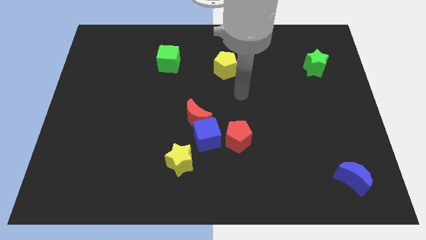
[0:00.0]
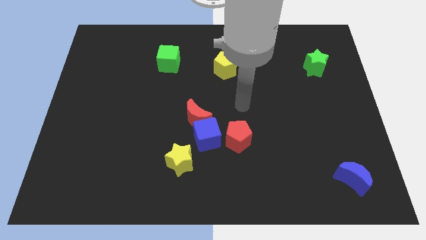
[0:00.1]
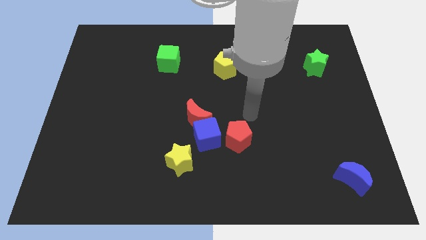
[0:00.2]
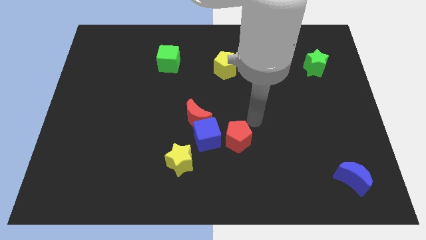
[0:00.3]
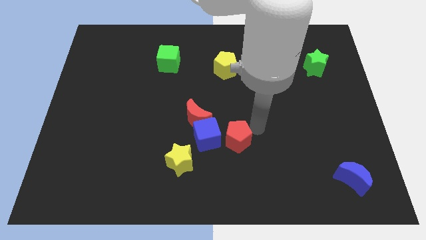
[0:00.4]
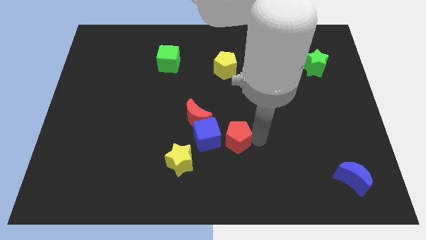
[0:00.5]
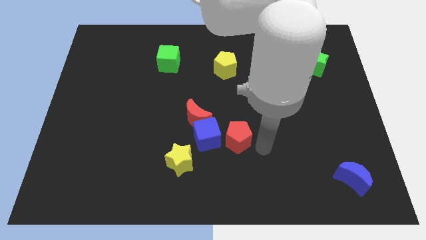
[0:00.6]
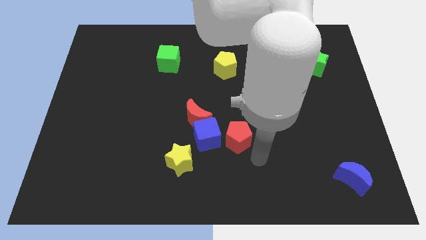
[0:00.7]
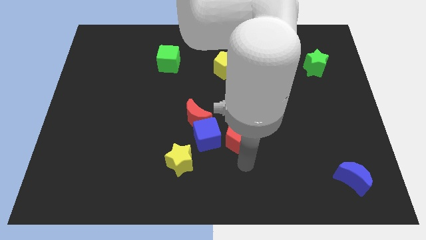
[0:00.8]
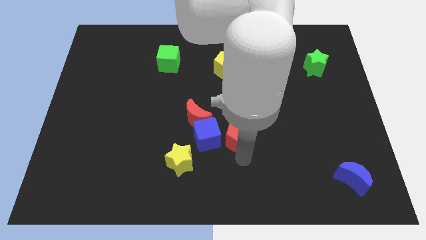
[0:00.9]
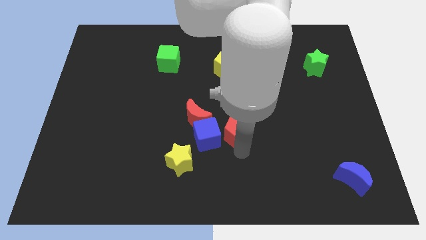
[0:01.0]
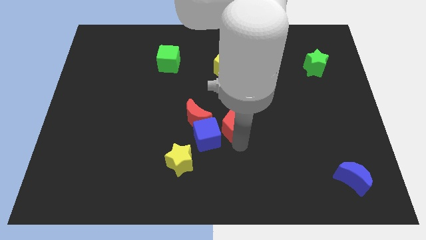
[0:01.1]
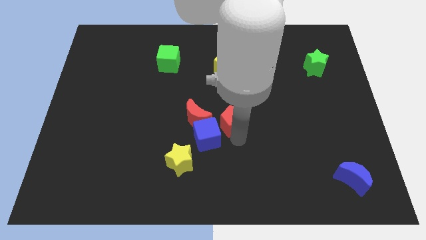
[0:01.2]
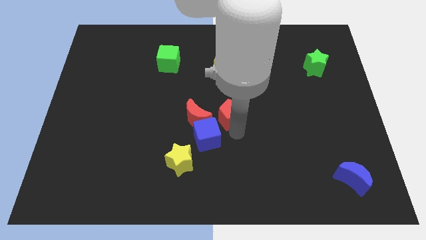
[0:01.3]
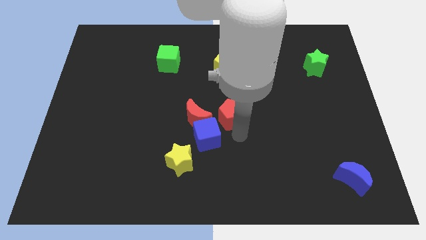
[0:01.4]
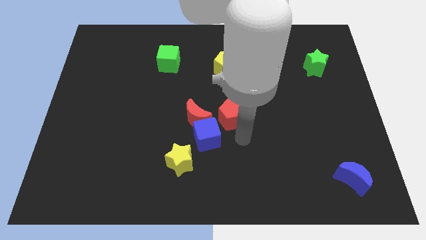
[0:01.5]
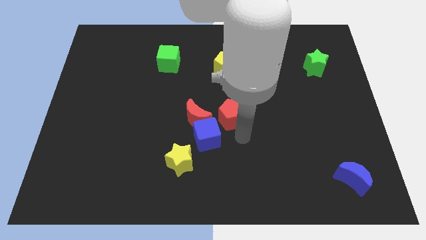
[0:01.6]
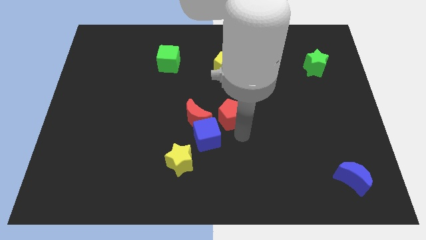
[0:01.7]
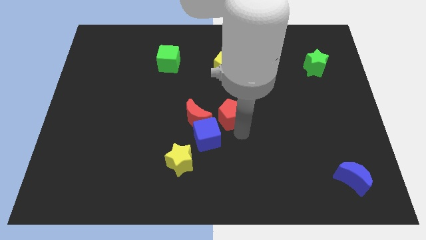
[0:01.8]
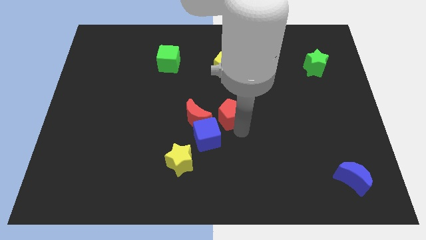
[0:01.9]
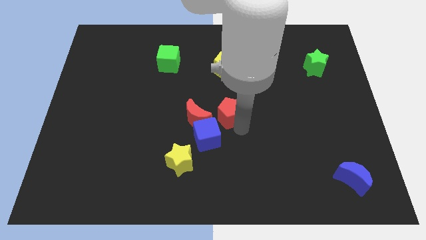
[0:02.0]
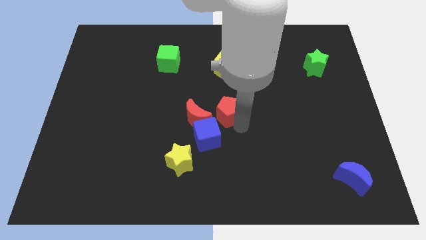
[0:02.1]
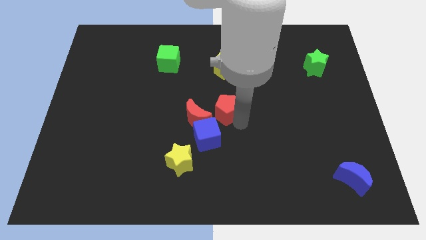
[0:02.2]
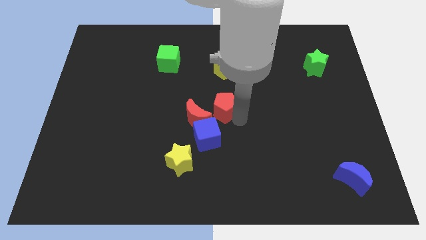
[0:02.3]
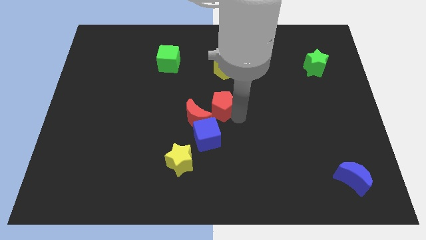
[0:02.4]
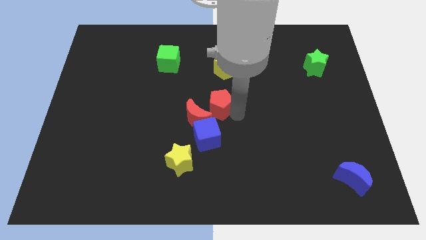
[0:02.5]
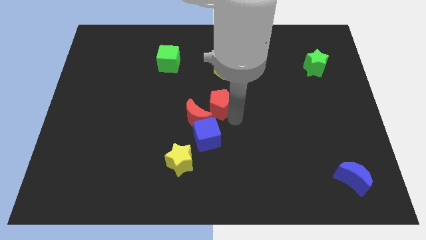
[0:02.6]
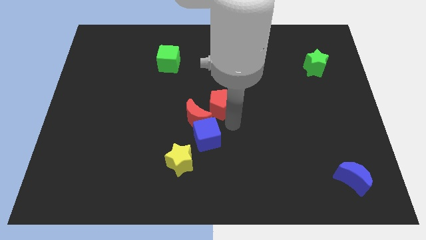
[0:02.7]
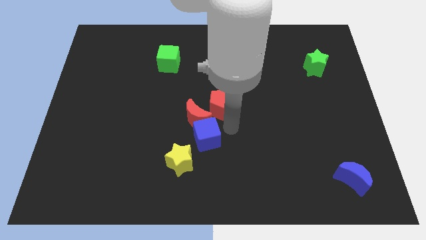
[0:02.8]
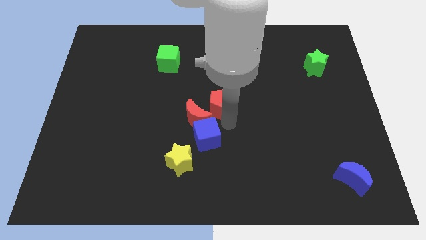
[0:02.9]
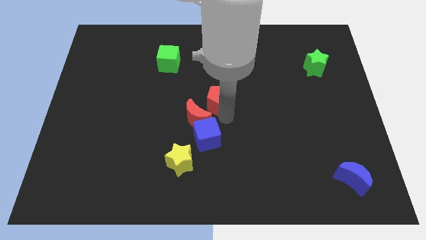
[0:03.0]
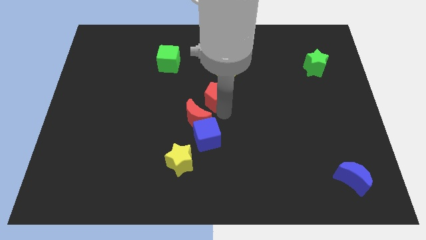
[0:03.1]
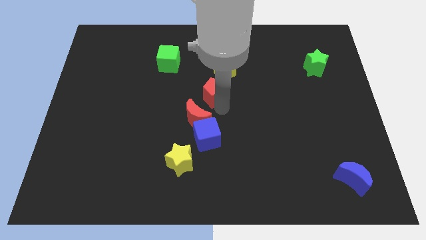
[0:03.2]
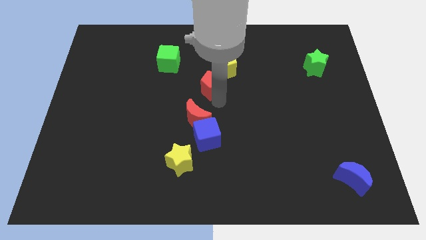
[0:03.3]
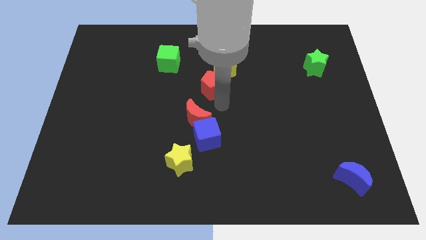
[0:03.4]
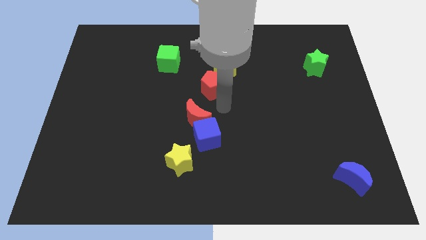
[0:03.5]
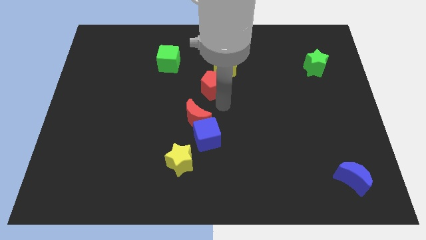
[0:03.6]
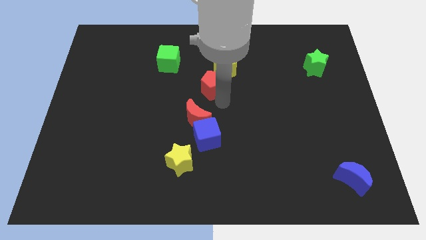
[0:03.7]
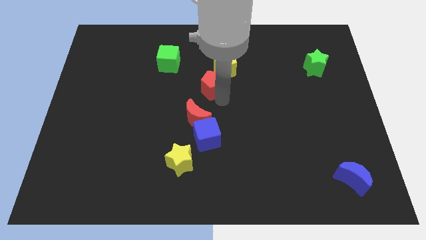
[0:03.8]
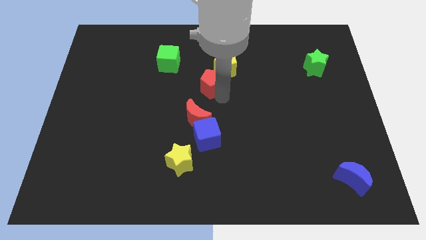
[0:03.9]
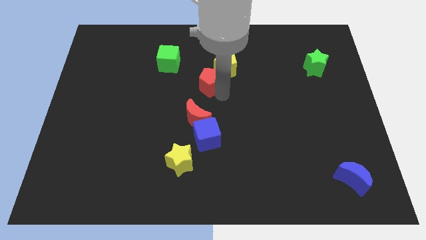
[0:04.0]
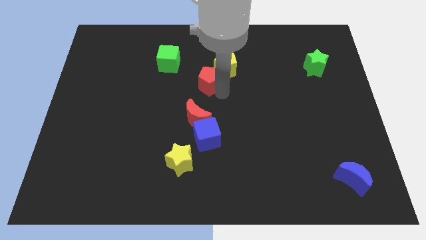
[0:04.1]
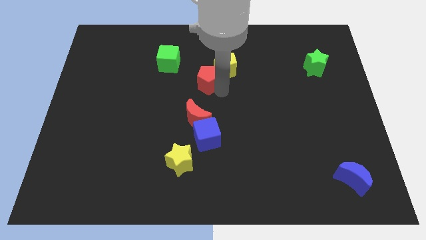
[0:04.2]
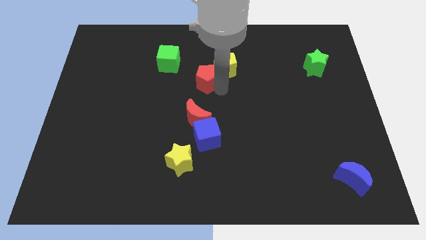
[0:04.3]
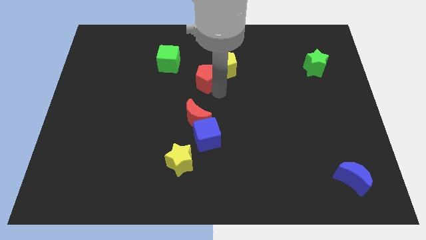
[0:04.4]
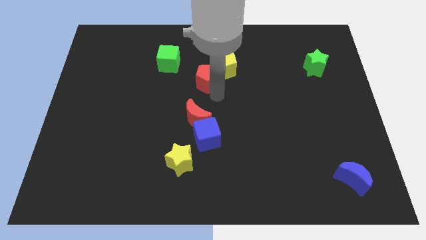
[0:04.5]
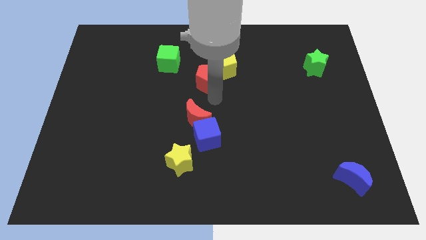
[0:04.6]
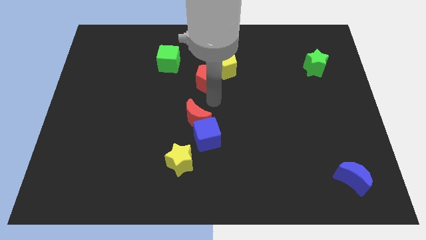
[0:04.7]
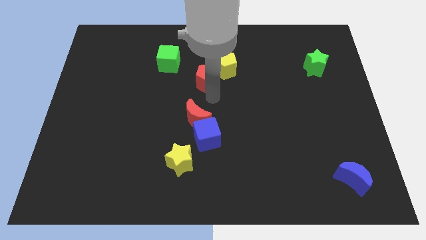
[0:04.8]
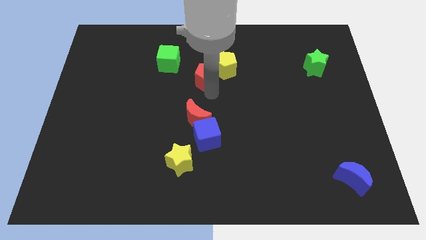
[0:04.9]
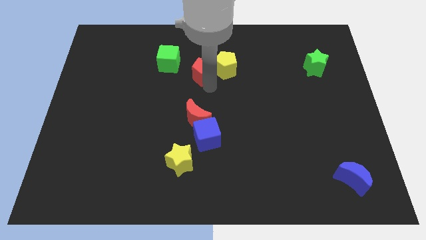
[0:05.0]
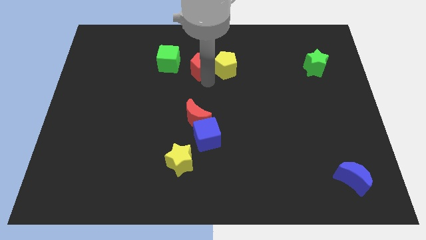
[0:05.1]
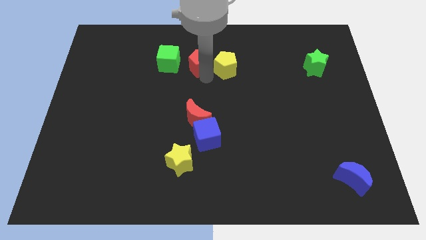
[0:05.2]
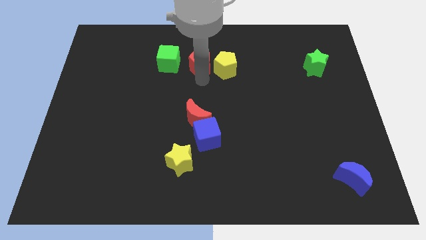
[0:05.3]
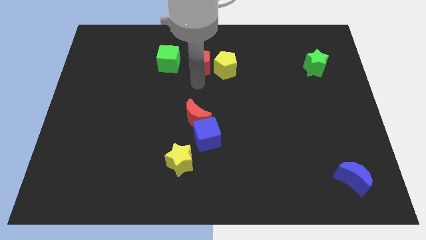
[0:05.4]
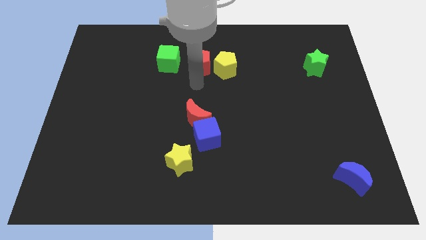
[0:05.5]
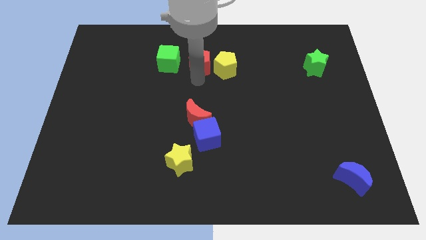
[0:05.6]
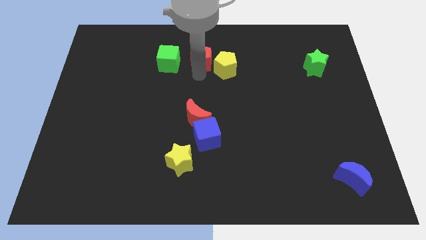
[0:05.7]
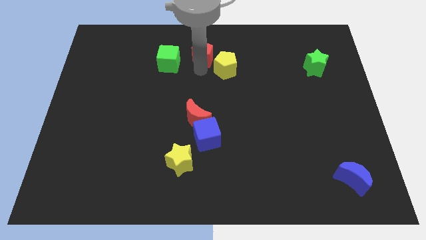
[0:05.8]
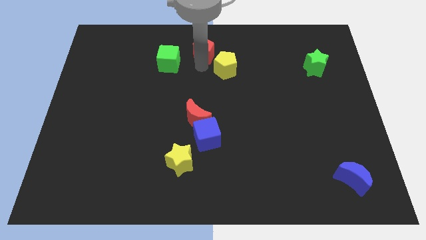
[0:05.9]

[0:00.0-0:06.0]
push the red pentagon to the top
